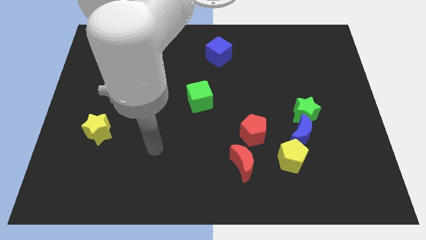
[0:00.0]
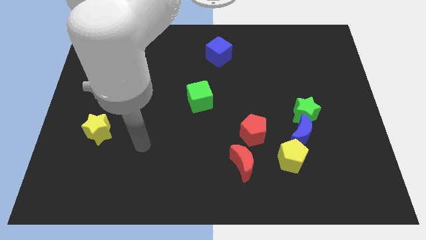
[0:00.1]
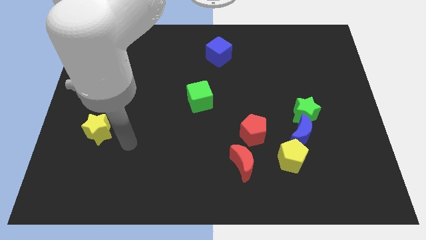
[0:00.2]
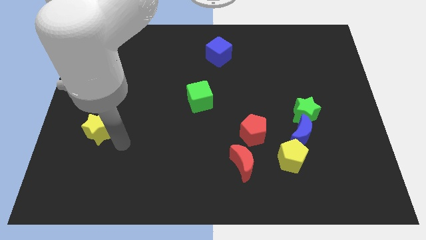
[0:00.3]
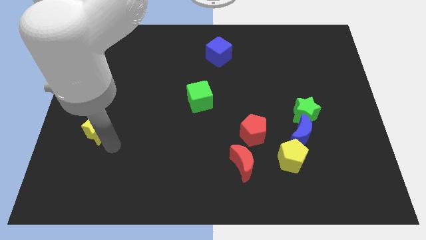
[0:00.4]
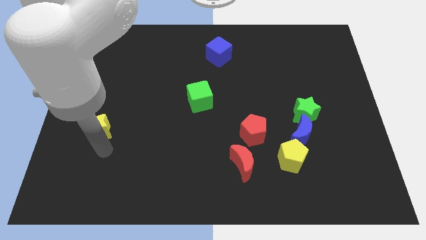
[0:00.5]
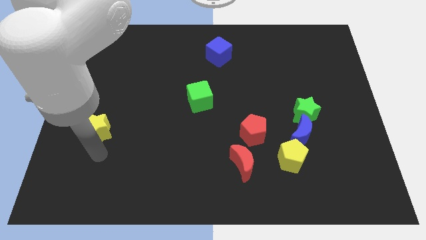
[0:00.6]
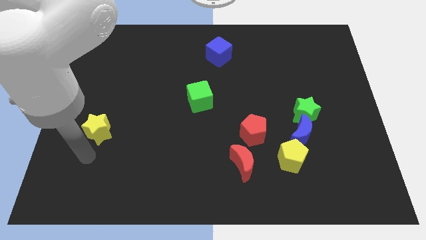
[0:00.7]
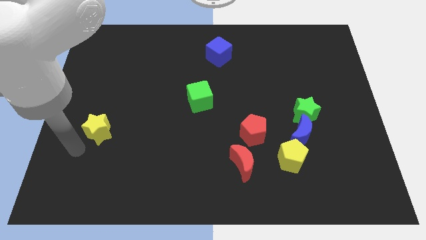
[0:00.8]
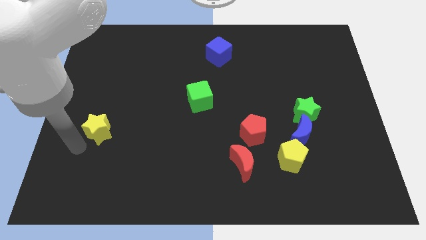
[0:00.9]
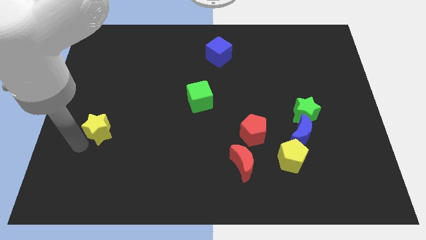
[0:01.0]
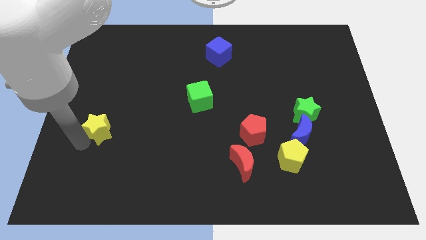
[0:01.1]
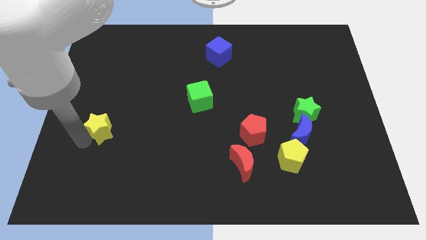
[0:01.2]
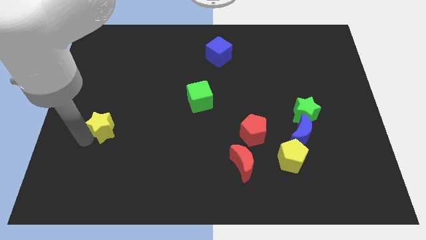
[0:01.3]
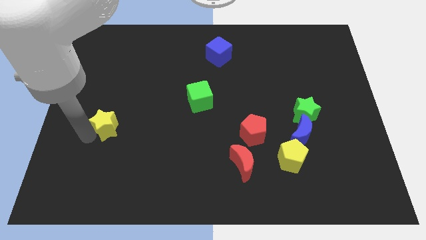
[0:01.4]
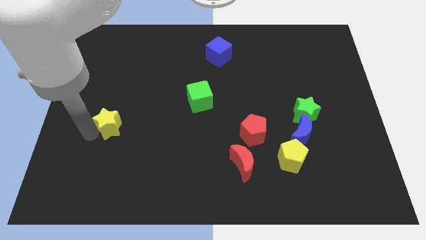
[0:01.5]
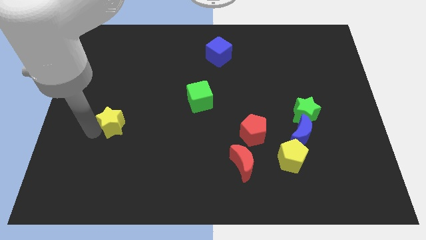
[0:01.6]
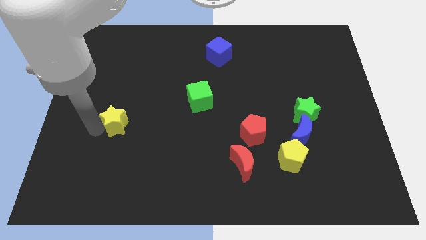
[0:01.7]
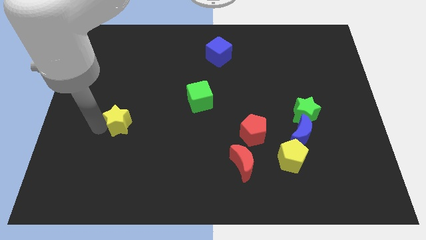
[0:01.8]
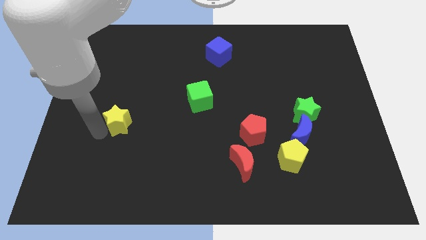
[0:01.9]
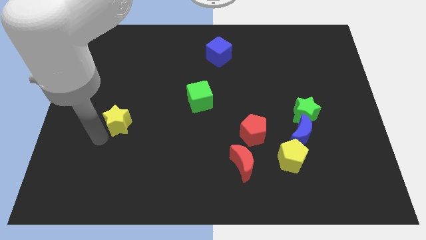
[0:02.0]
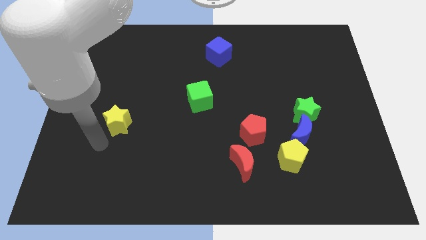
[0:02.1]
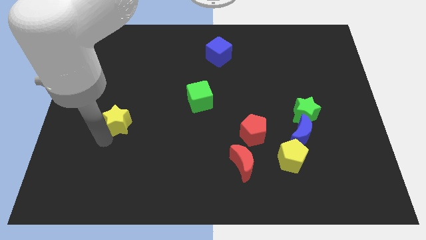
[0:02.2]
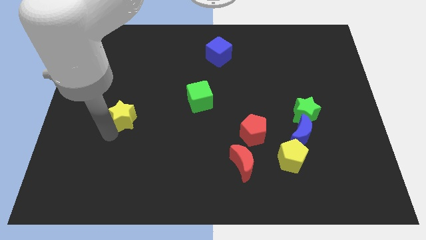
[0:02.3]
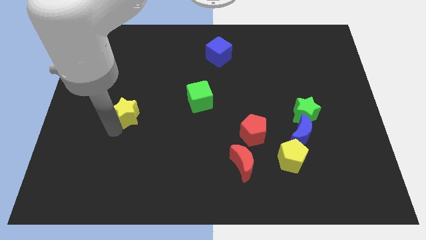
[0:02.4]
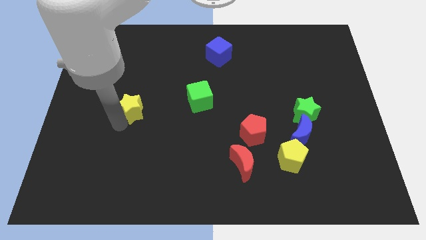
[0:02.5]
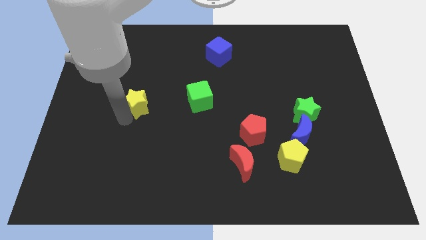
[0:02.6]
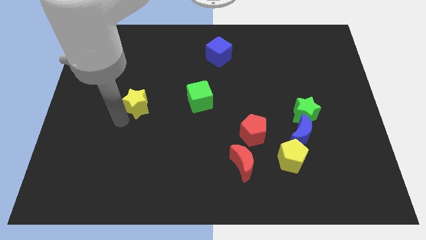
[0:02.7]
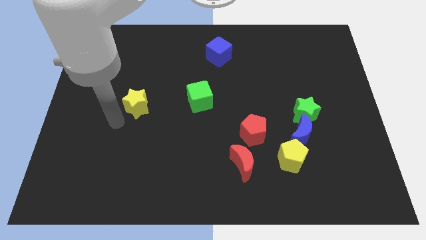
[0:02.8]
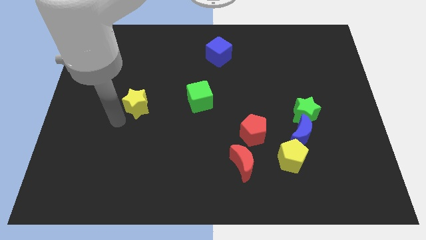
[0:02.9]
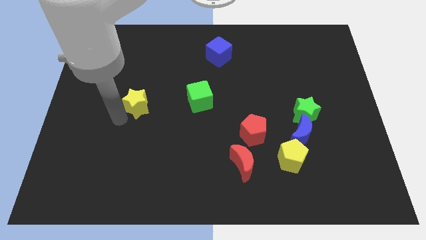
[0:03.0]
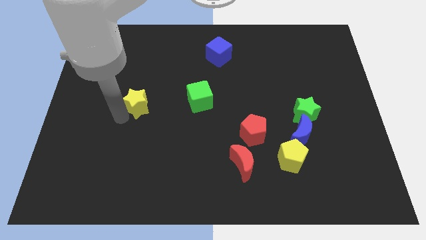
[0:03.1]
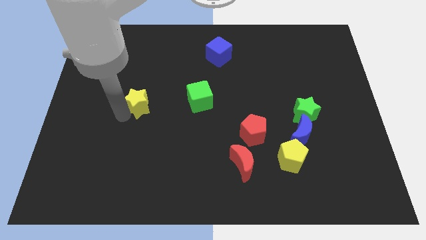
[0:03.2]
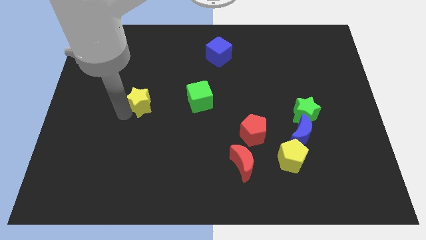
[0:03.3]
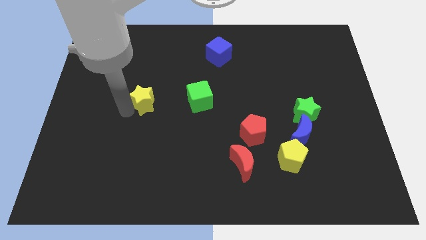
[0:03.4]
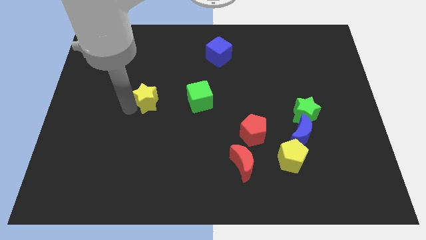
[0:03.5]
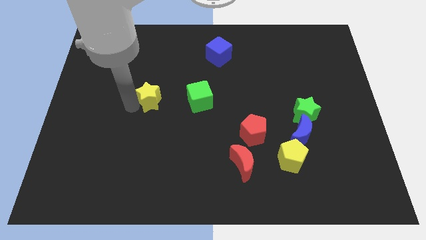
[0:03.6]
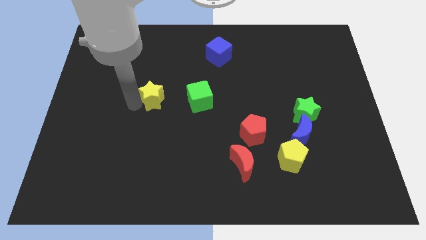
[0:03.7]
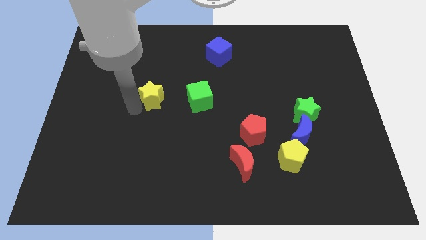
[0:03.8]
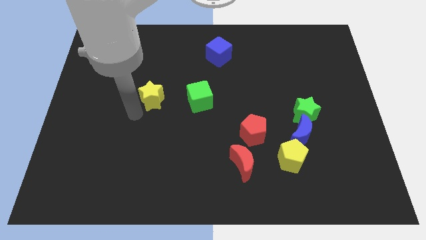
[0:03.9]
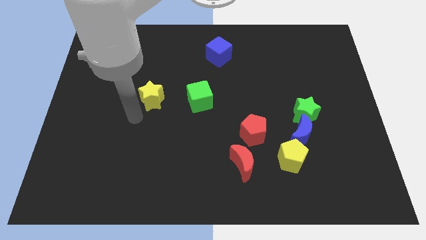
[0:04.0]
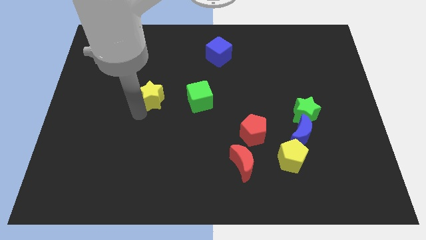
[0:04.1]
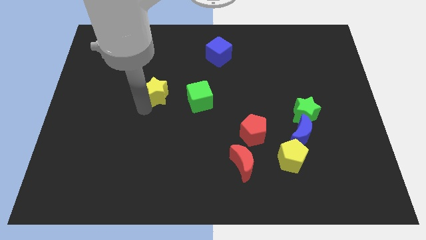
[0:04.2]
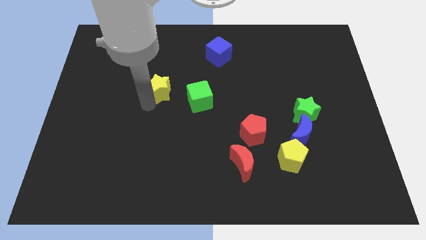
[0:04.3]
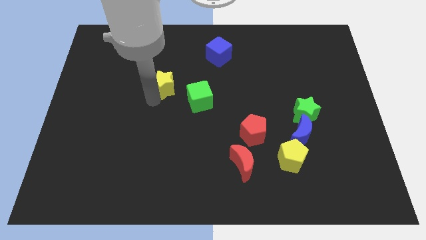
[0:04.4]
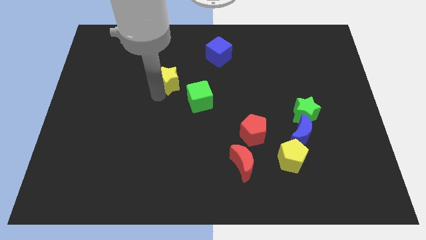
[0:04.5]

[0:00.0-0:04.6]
push the yellow star diagonally upwards and right

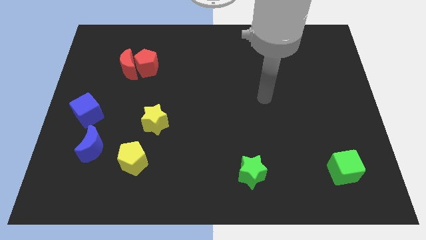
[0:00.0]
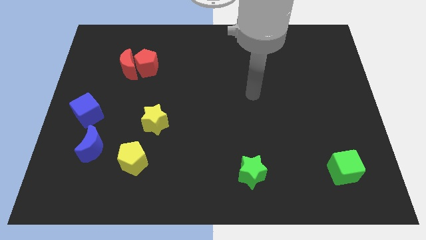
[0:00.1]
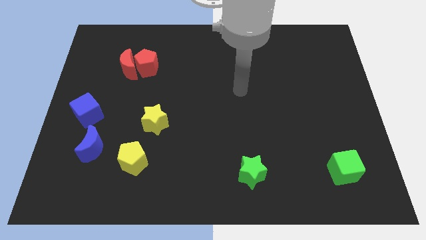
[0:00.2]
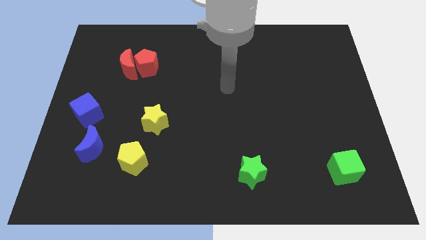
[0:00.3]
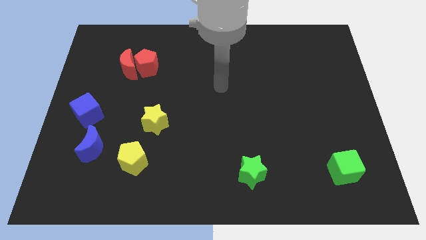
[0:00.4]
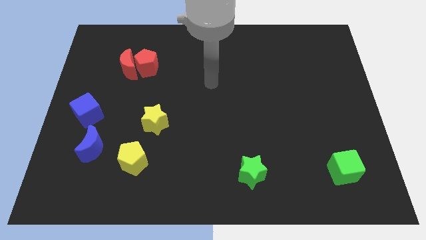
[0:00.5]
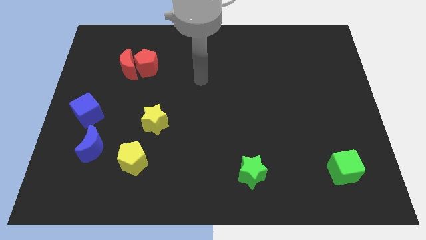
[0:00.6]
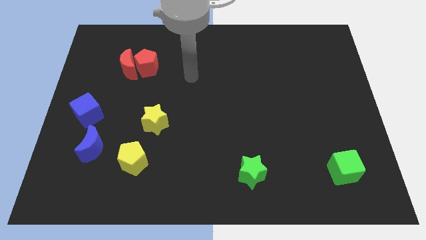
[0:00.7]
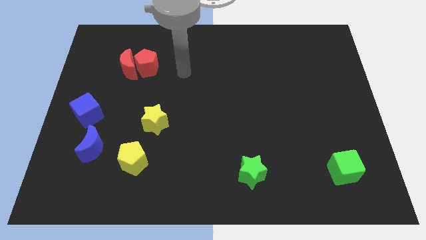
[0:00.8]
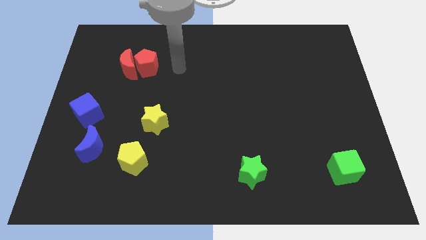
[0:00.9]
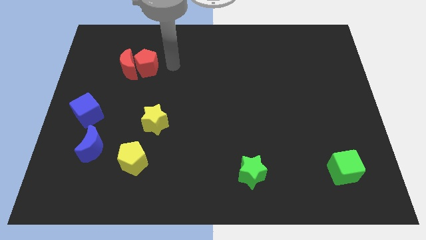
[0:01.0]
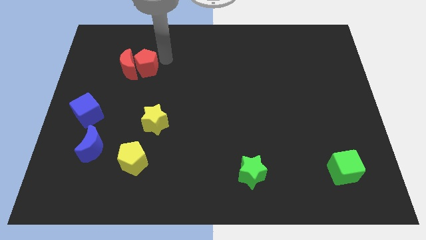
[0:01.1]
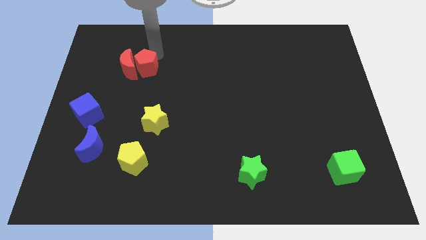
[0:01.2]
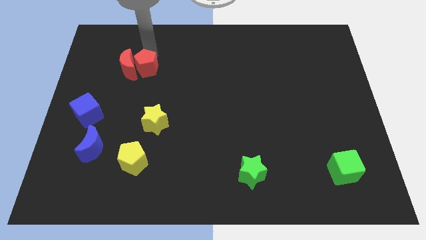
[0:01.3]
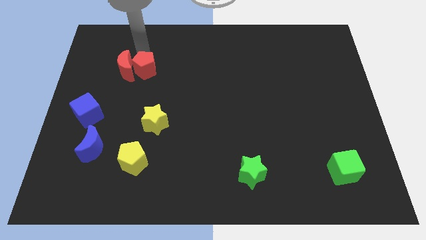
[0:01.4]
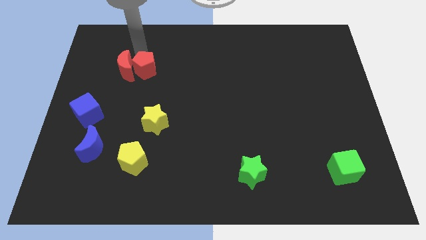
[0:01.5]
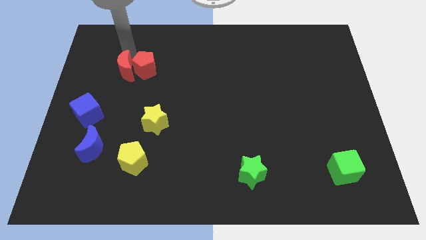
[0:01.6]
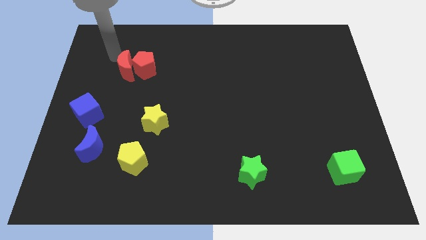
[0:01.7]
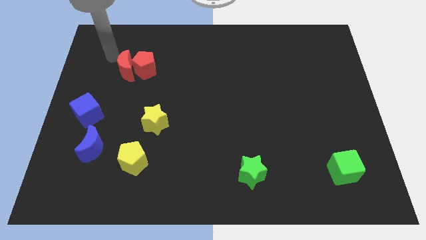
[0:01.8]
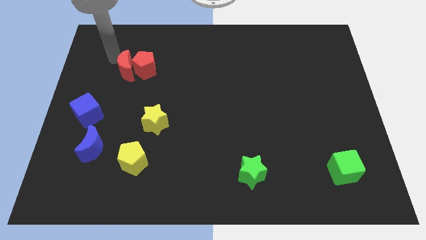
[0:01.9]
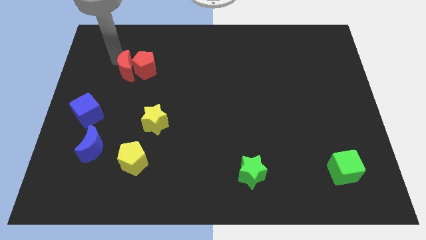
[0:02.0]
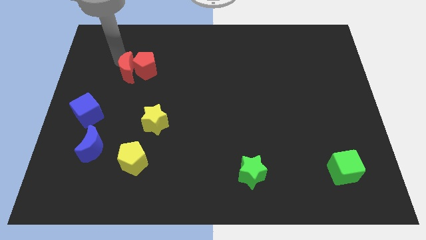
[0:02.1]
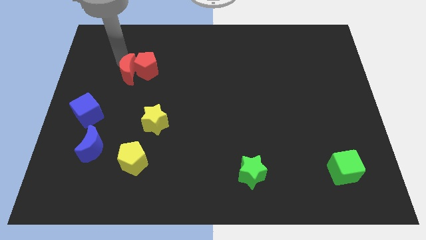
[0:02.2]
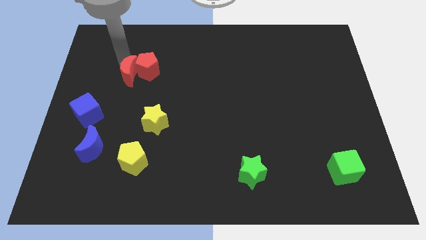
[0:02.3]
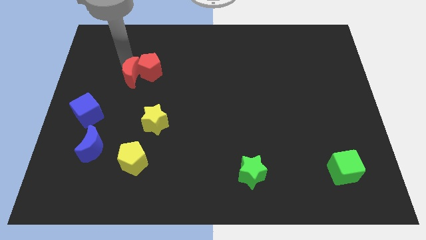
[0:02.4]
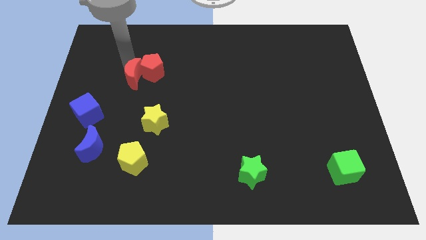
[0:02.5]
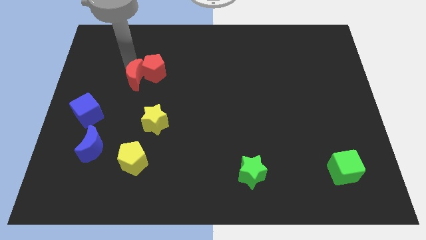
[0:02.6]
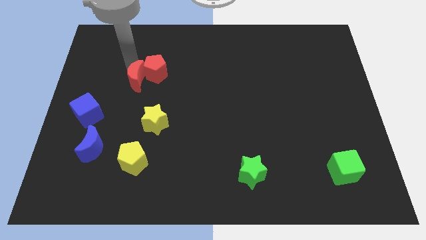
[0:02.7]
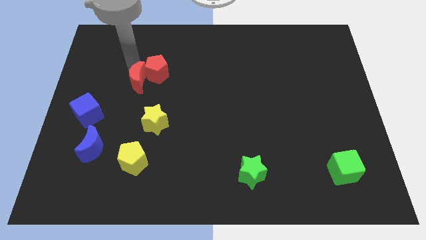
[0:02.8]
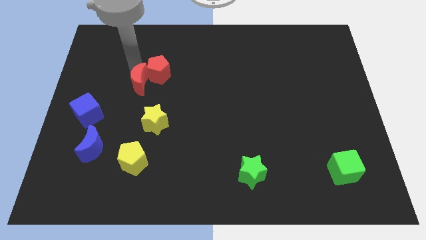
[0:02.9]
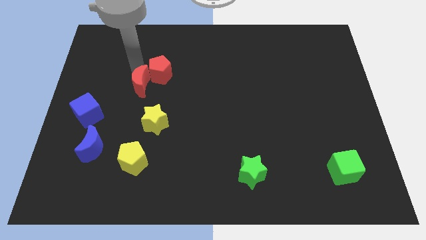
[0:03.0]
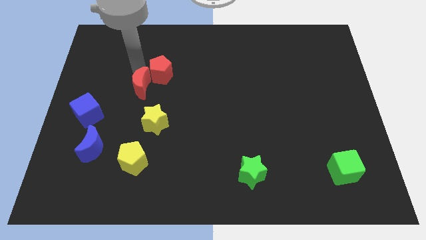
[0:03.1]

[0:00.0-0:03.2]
move the red moon somewhat down and right diagonally
